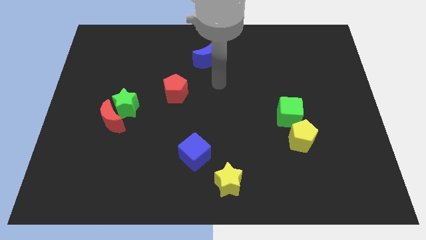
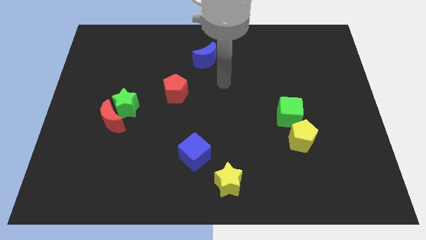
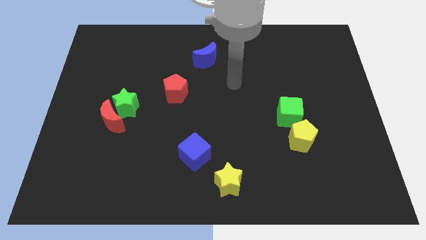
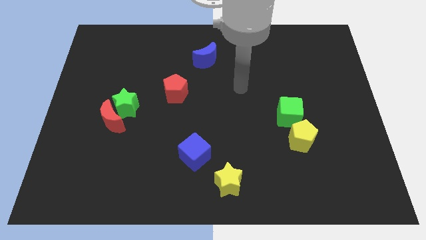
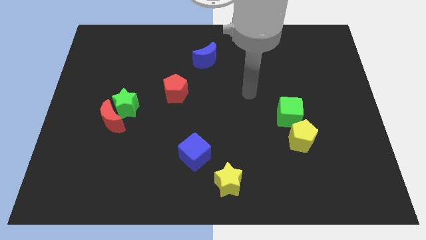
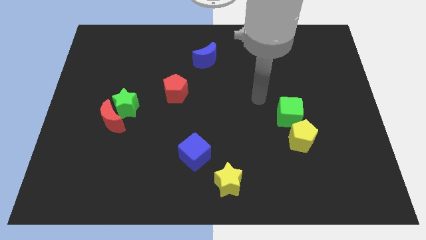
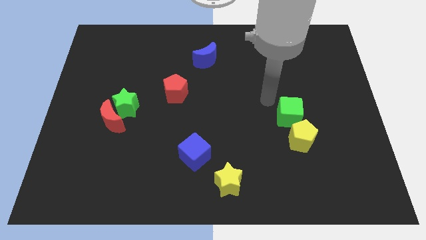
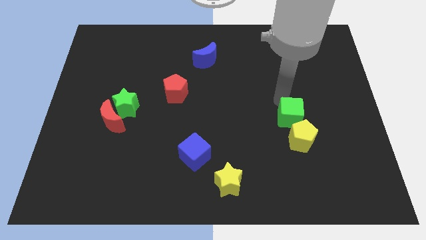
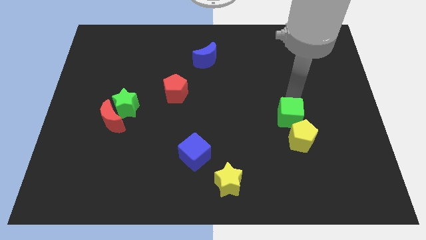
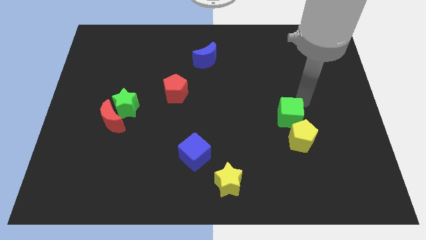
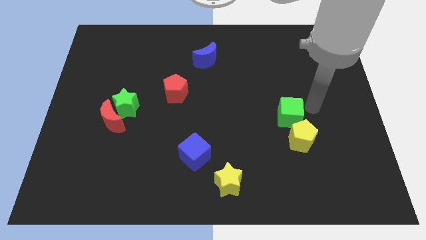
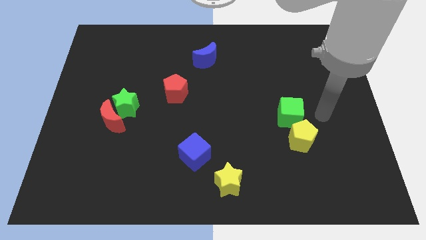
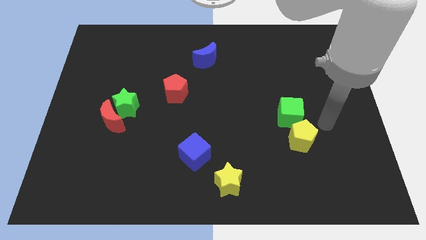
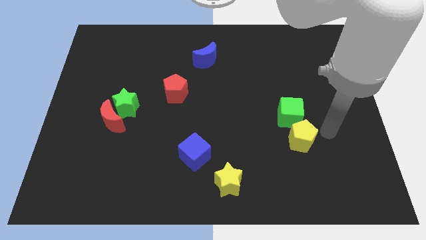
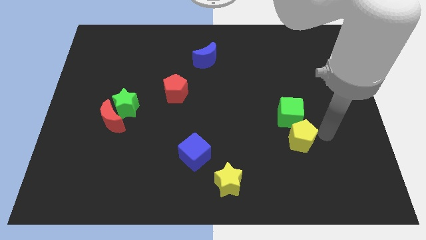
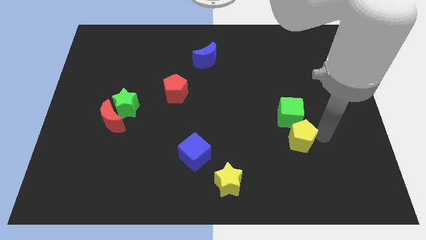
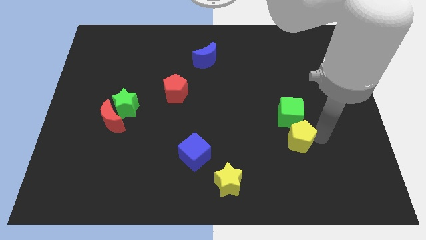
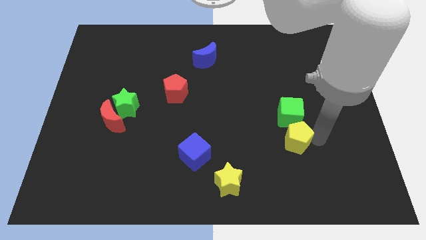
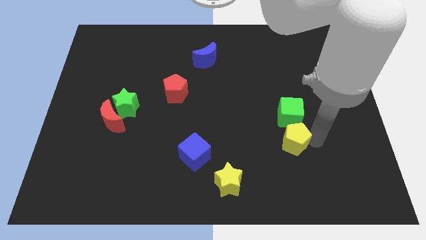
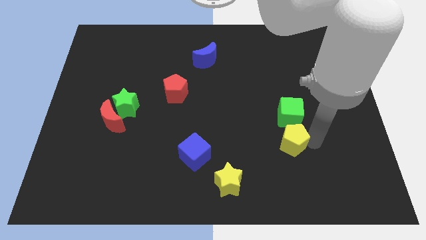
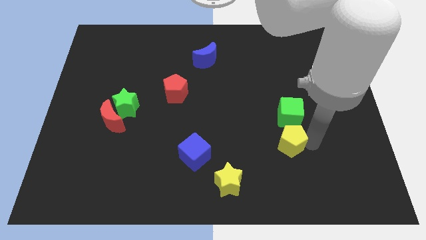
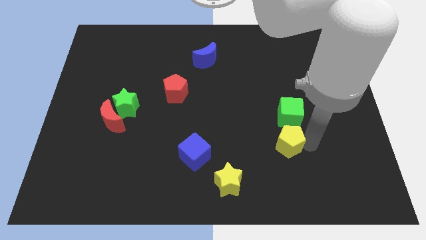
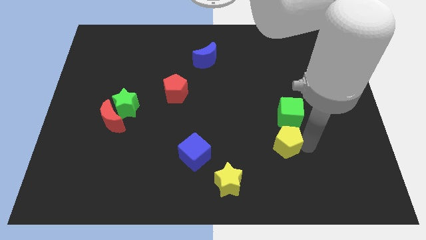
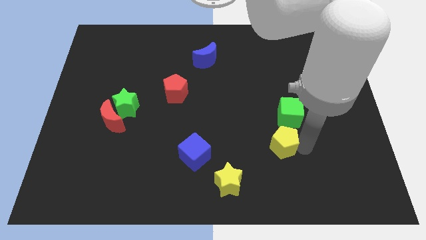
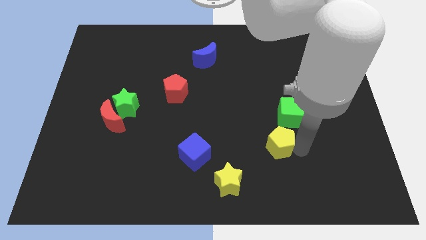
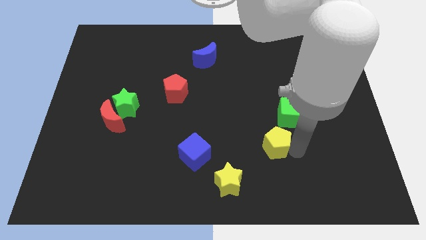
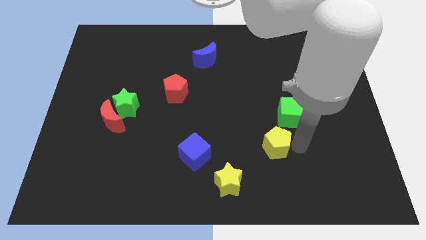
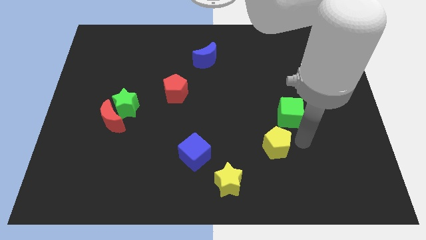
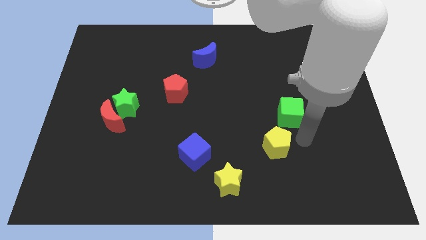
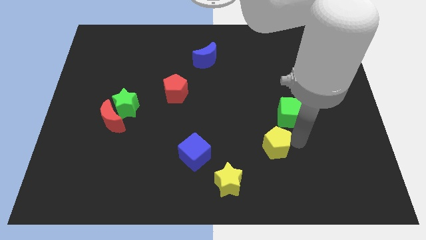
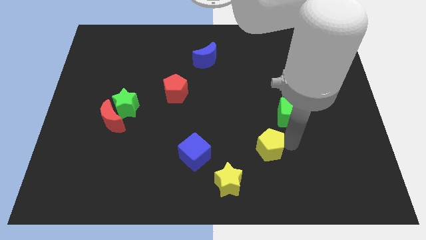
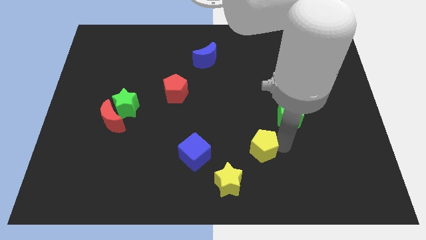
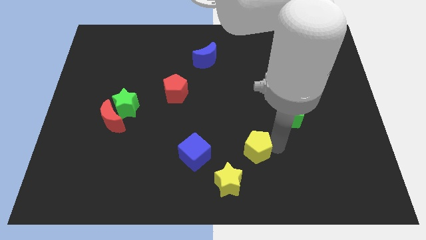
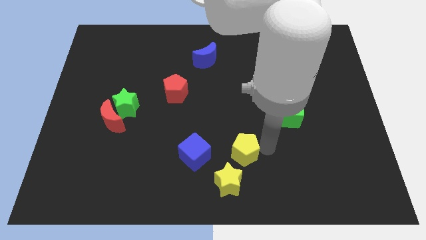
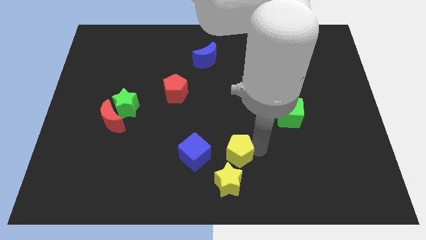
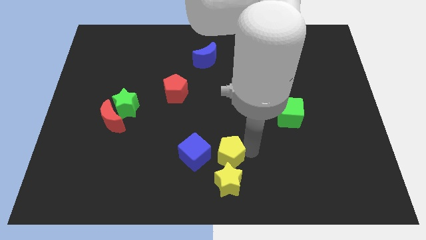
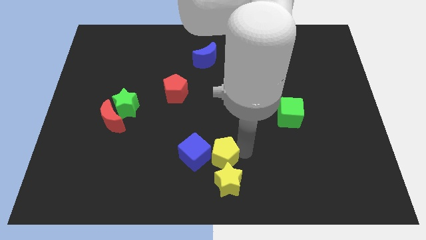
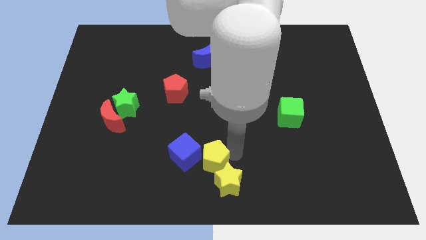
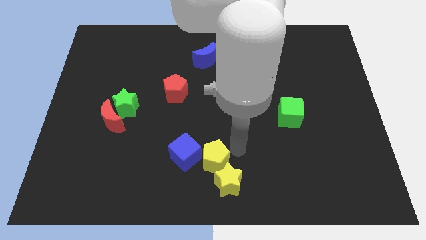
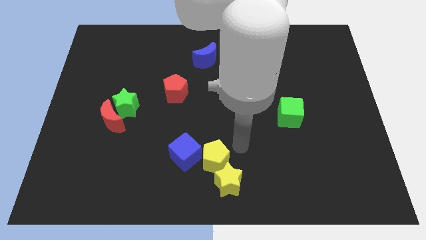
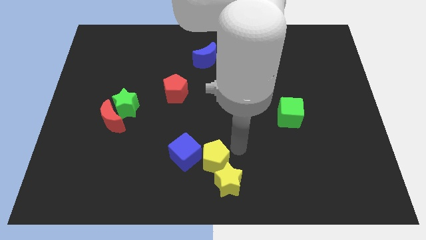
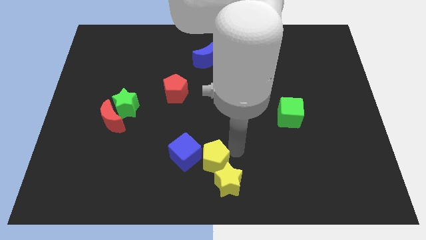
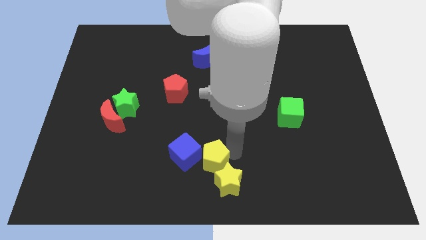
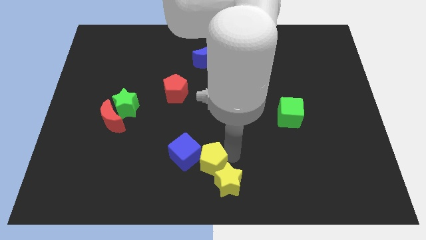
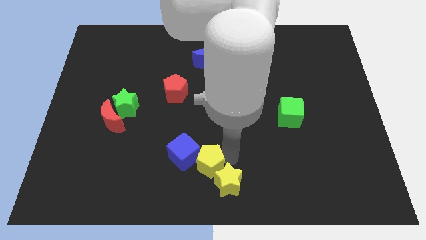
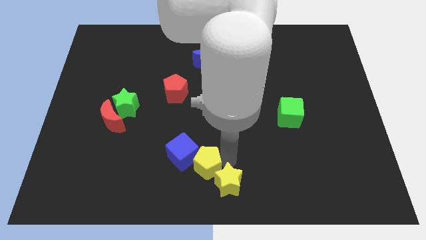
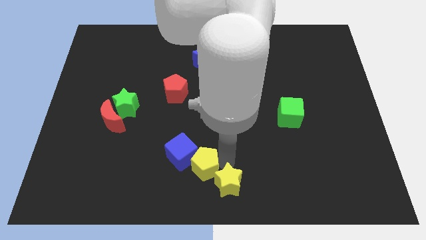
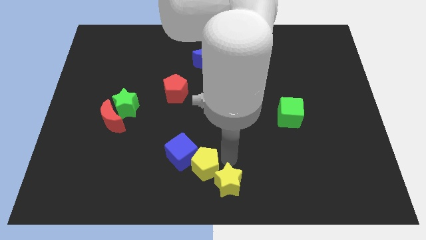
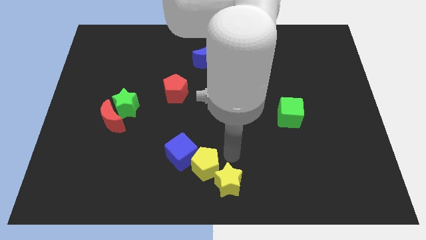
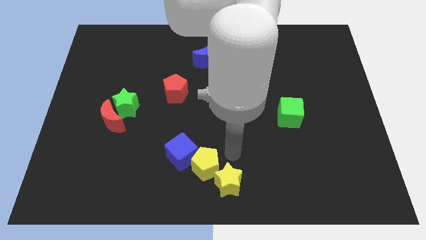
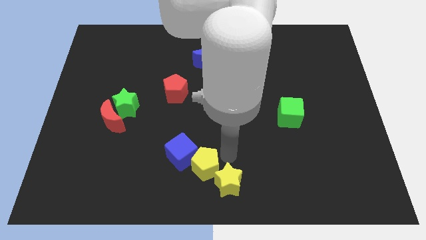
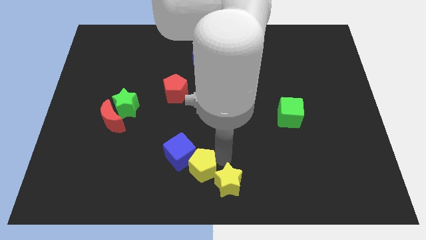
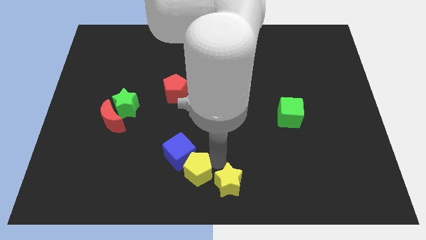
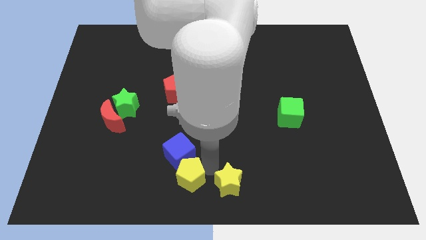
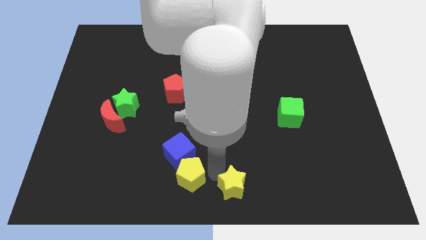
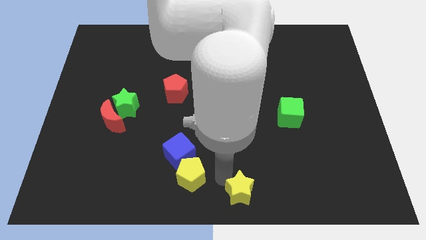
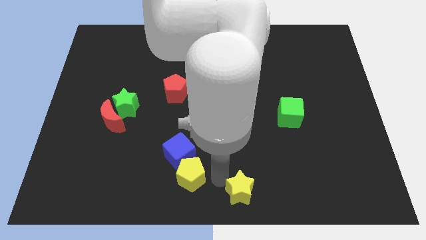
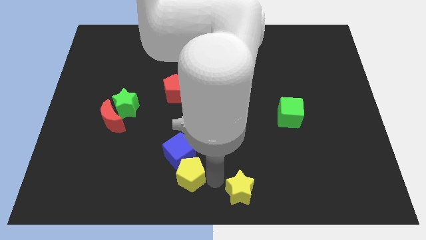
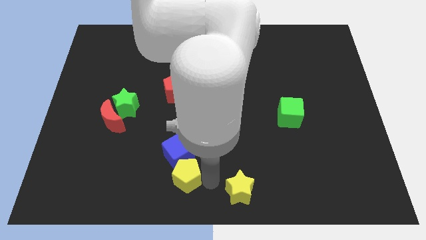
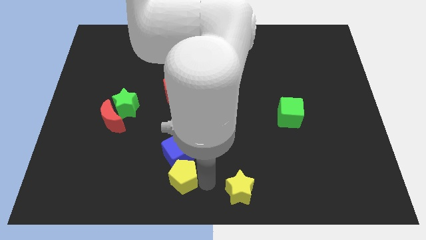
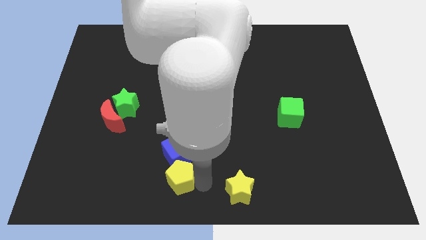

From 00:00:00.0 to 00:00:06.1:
slide the yellow pentagon to the bottom left side of the blue cube

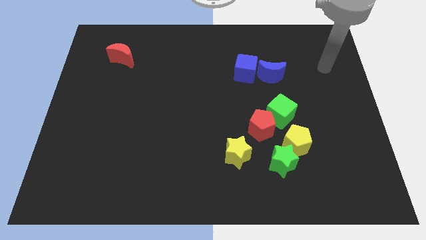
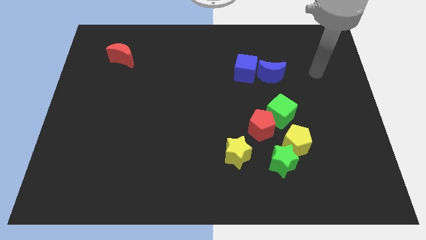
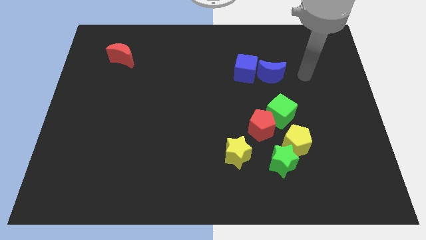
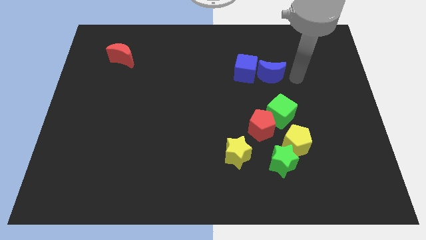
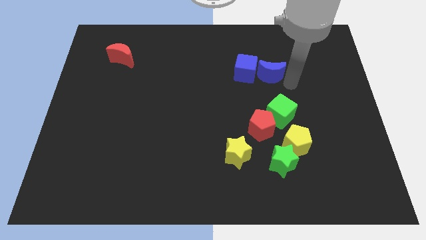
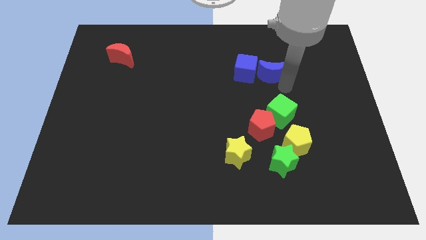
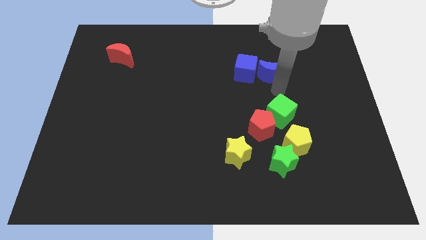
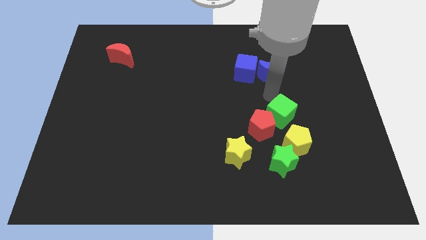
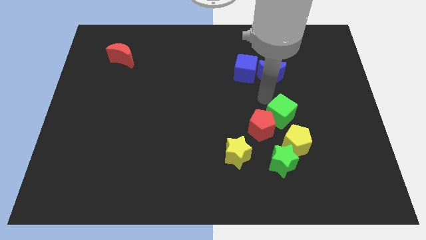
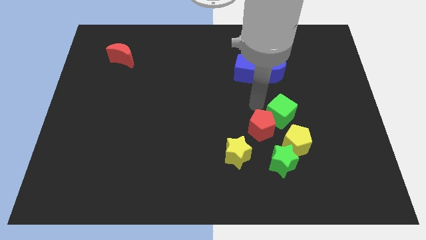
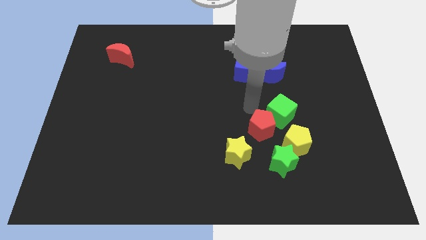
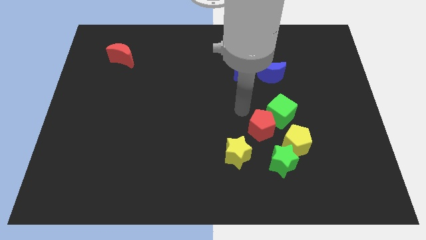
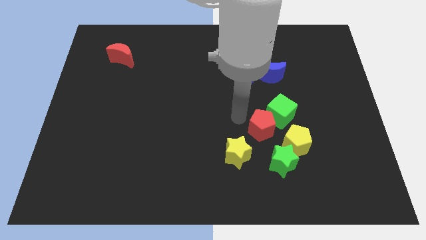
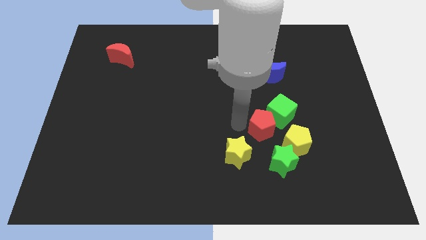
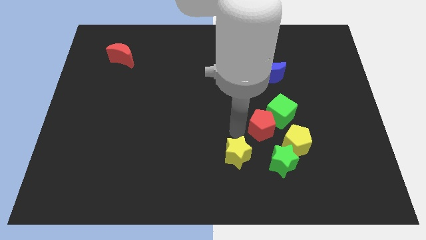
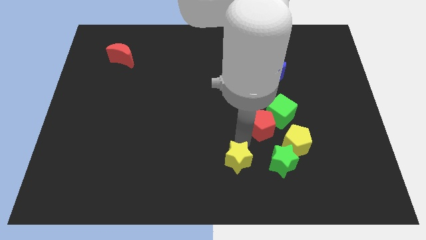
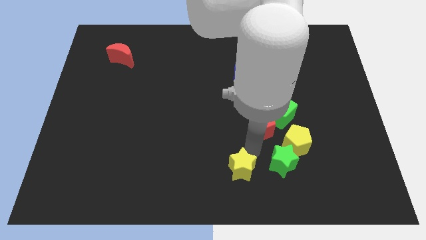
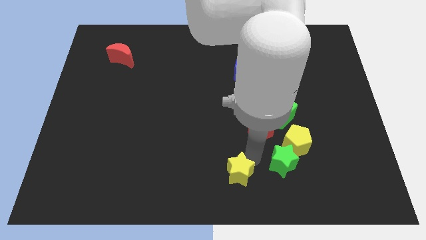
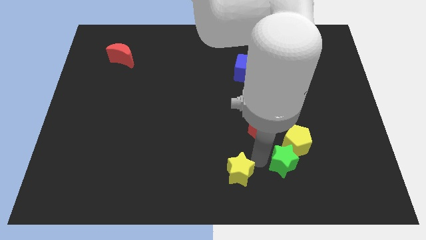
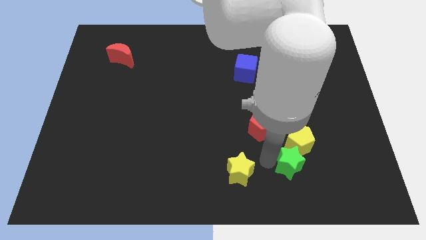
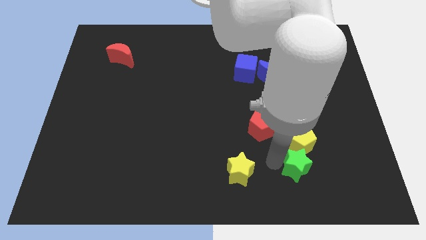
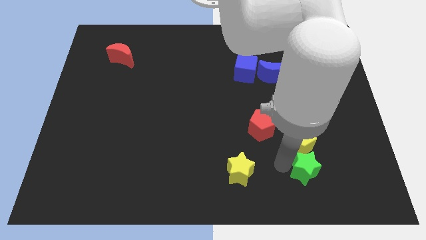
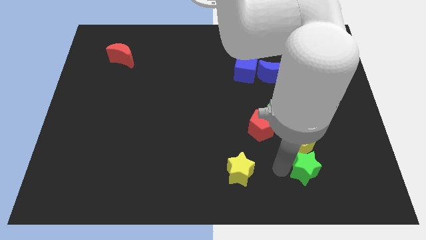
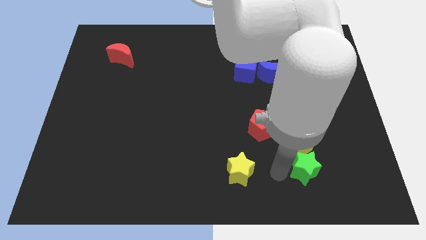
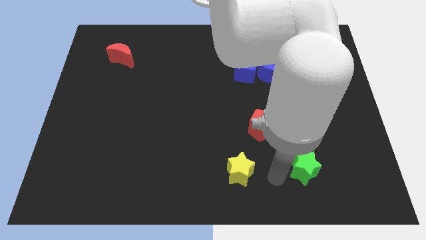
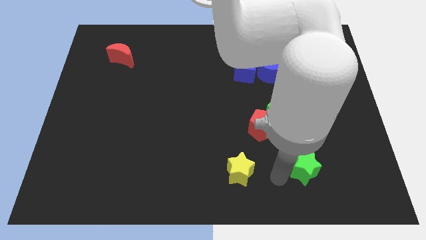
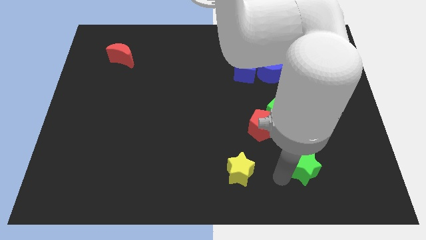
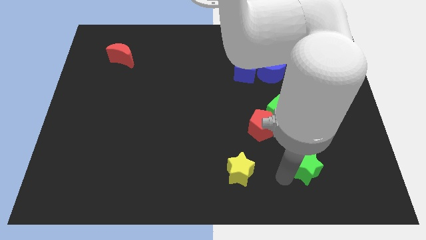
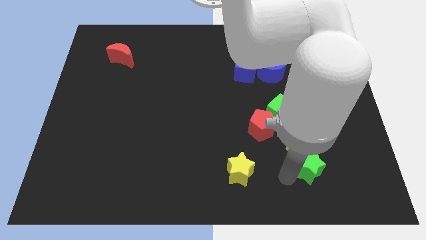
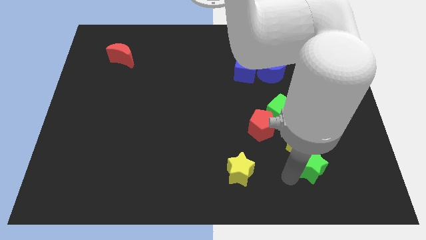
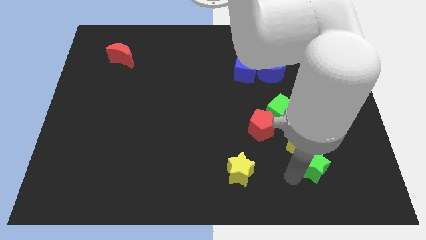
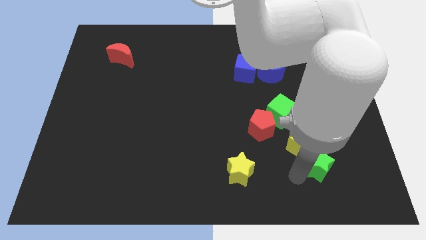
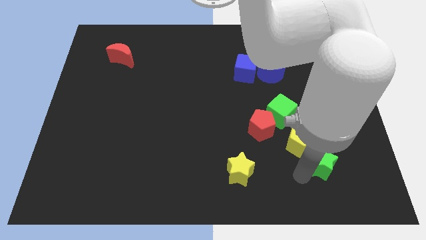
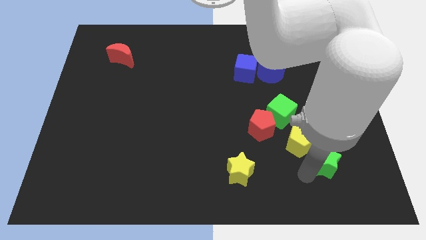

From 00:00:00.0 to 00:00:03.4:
slide the green star to the right side of the yellow pentagon
